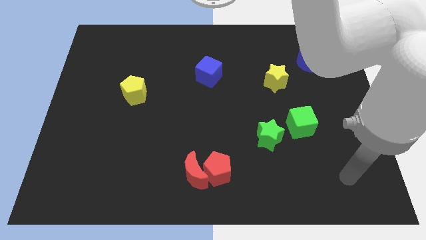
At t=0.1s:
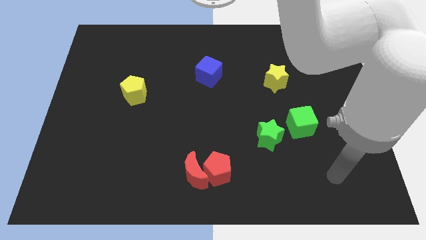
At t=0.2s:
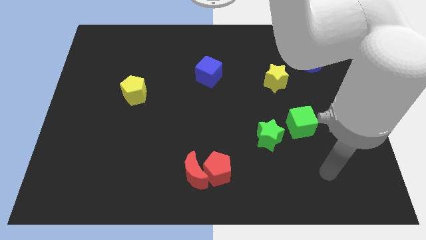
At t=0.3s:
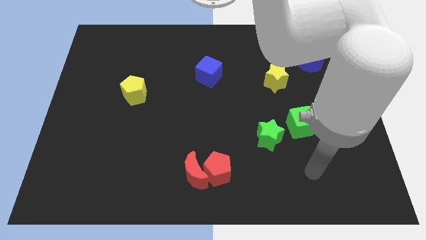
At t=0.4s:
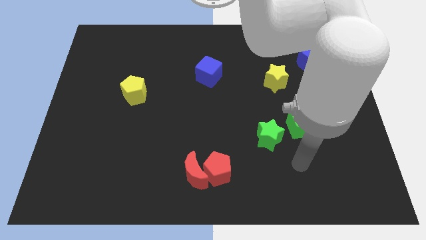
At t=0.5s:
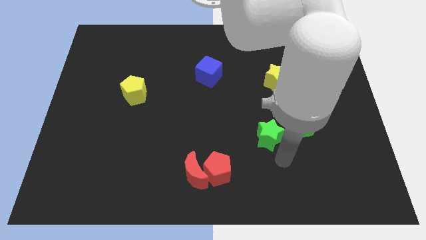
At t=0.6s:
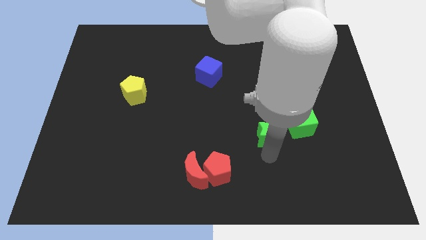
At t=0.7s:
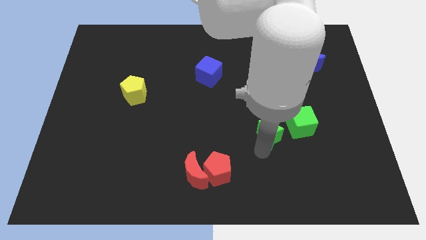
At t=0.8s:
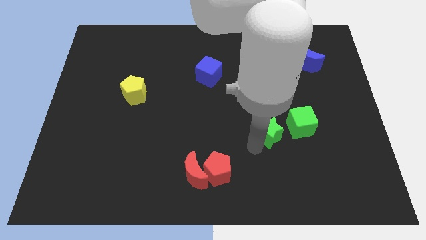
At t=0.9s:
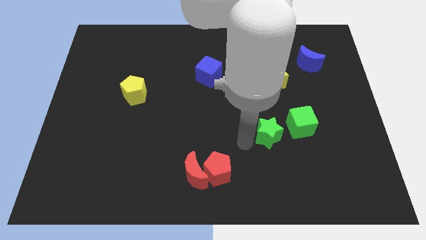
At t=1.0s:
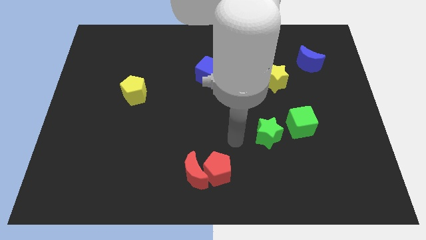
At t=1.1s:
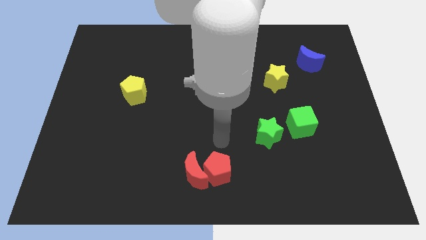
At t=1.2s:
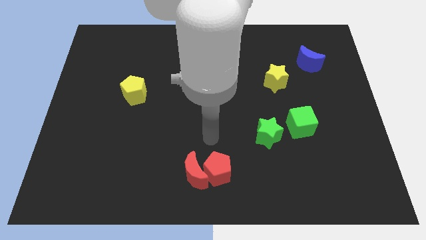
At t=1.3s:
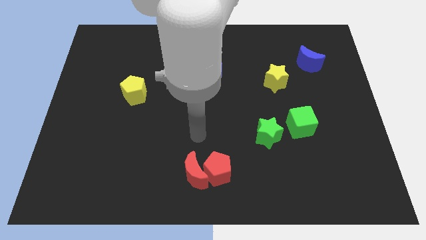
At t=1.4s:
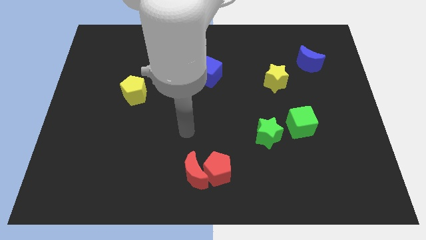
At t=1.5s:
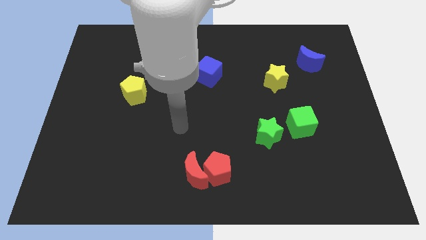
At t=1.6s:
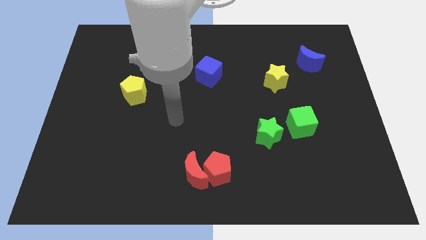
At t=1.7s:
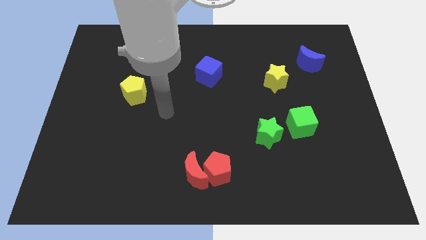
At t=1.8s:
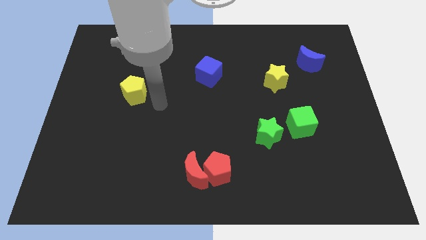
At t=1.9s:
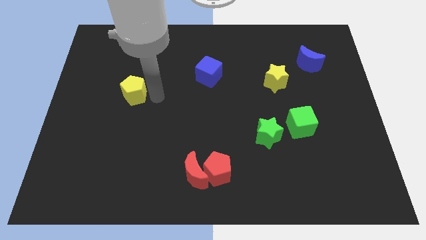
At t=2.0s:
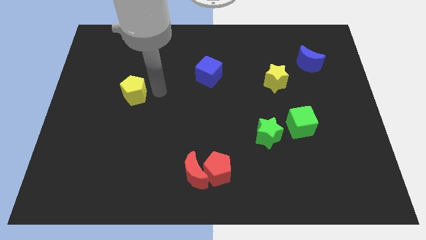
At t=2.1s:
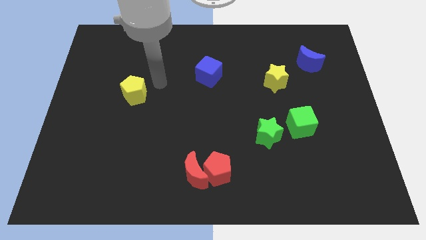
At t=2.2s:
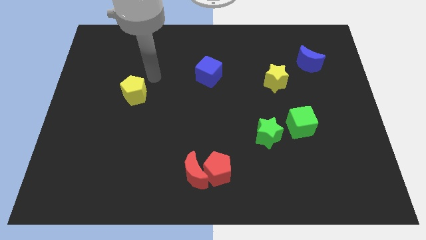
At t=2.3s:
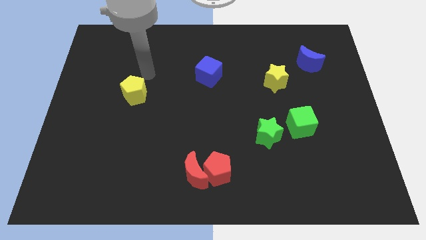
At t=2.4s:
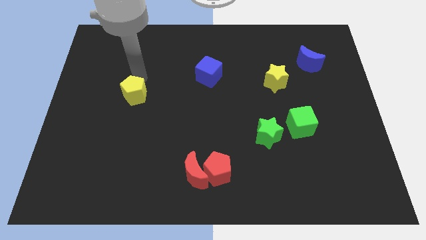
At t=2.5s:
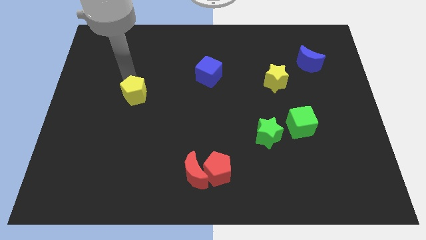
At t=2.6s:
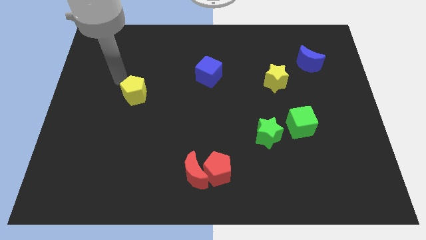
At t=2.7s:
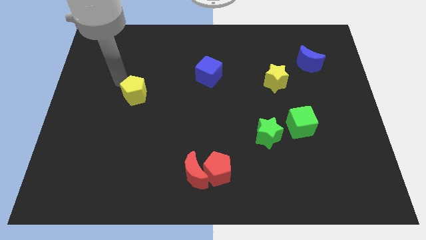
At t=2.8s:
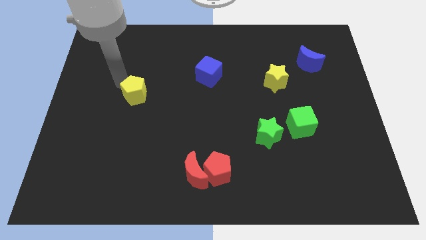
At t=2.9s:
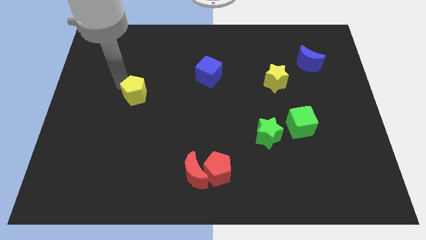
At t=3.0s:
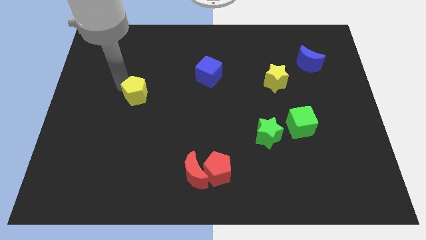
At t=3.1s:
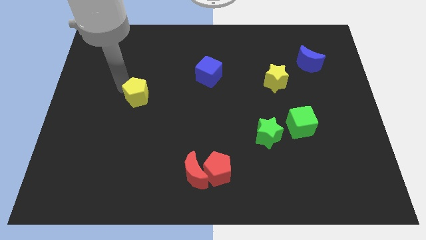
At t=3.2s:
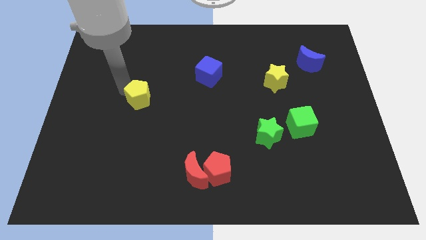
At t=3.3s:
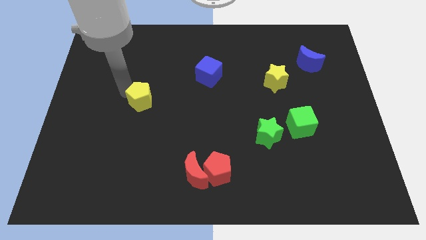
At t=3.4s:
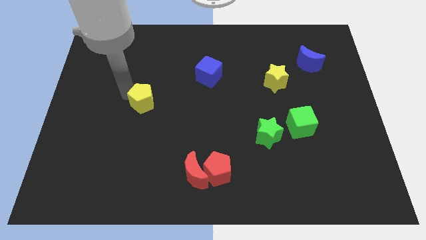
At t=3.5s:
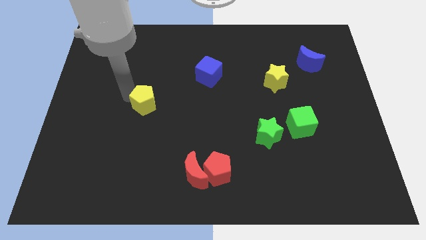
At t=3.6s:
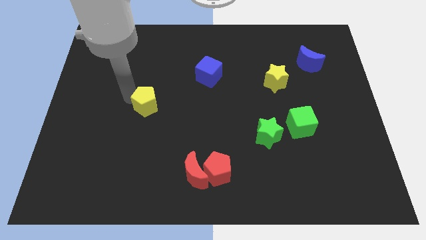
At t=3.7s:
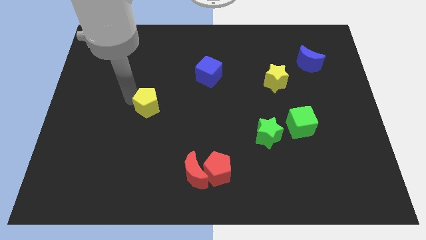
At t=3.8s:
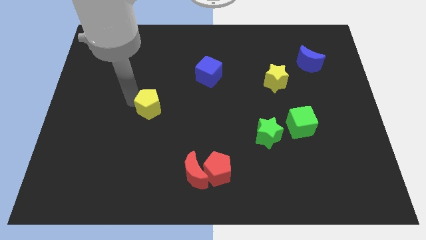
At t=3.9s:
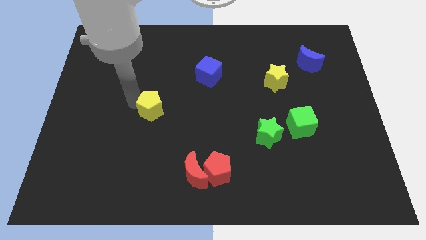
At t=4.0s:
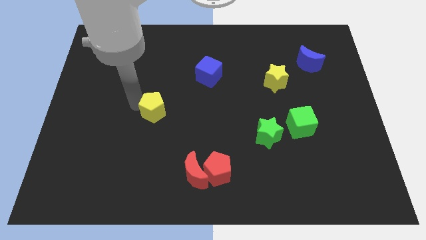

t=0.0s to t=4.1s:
slightly move the yellow pentagon downwards and to the right

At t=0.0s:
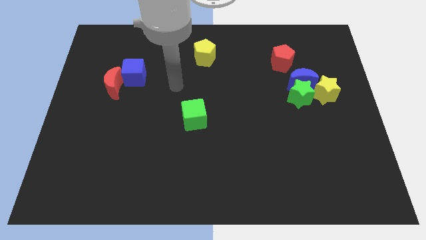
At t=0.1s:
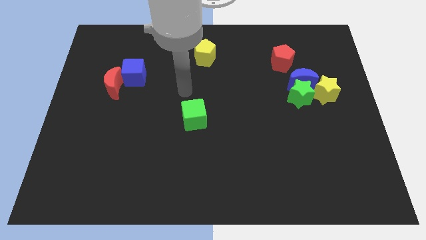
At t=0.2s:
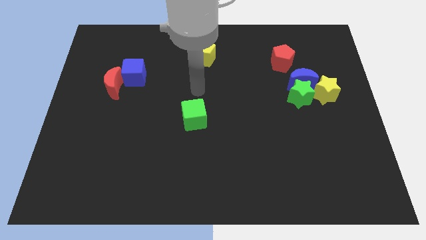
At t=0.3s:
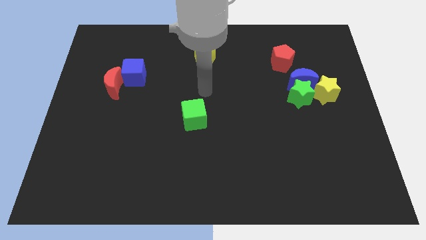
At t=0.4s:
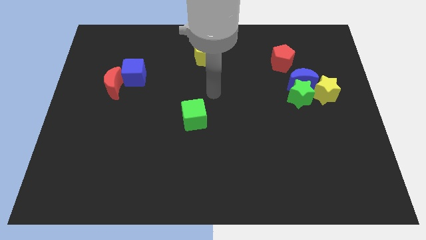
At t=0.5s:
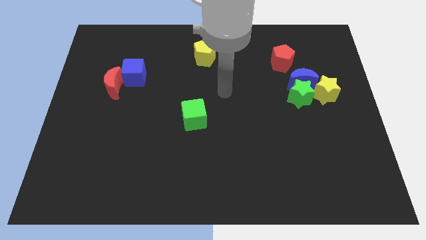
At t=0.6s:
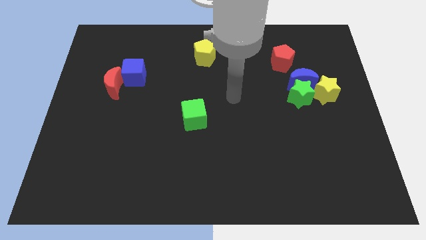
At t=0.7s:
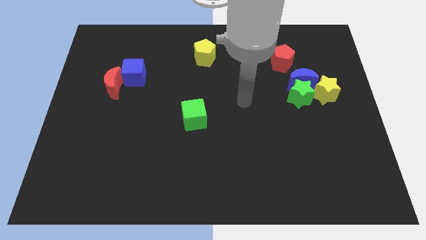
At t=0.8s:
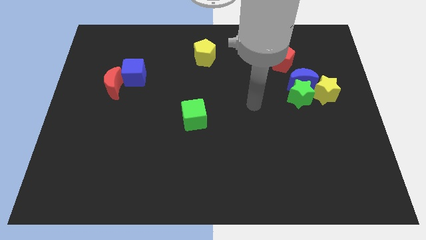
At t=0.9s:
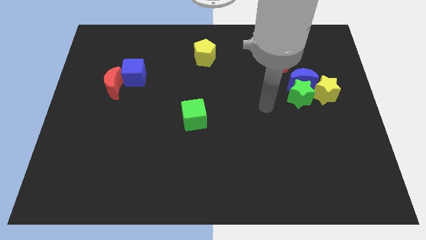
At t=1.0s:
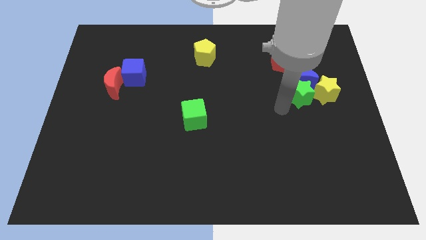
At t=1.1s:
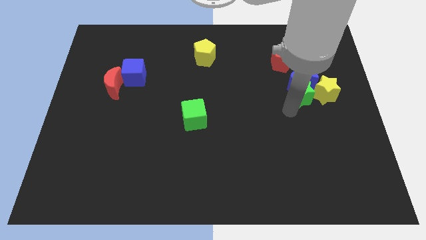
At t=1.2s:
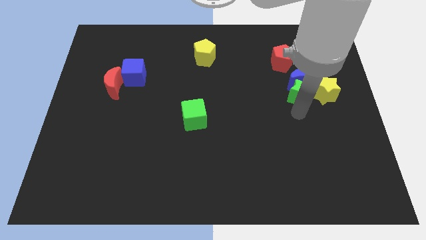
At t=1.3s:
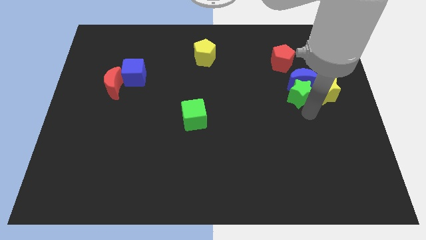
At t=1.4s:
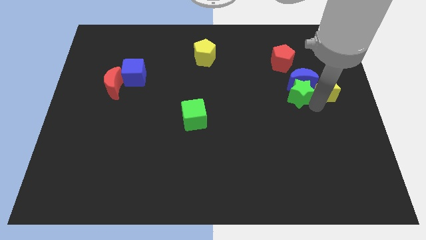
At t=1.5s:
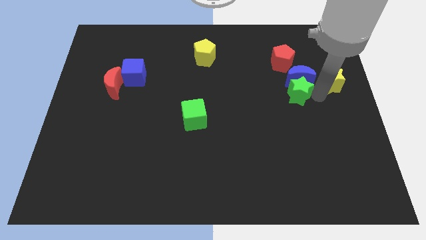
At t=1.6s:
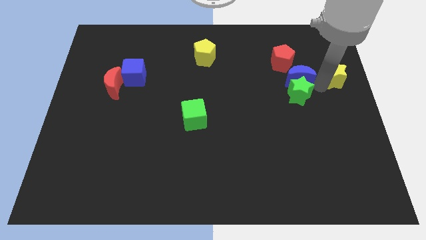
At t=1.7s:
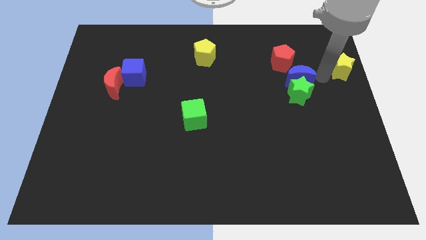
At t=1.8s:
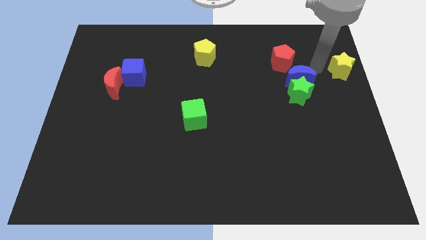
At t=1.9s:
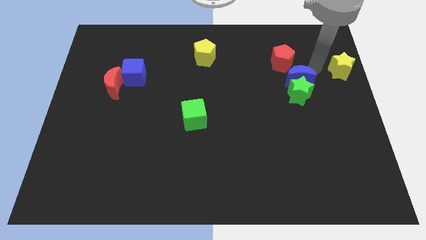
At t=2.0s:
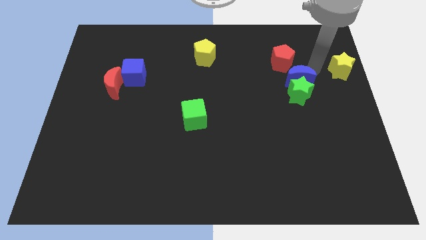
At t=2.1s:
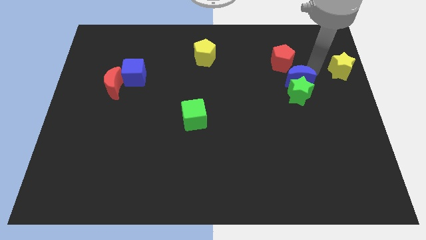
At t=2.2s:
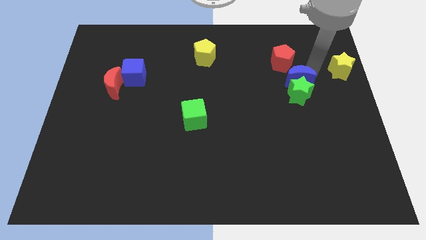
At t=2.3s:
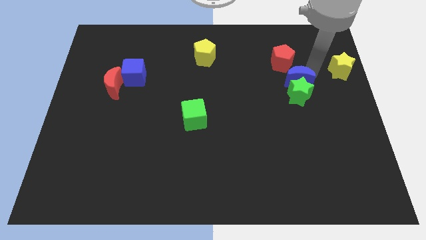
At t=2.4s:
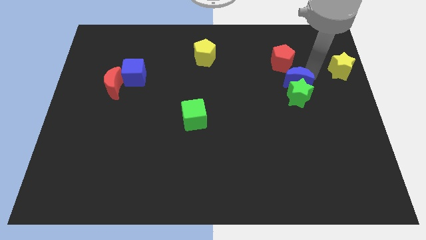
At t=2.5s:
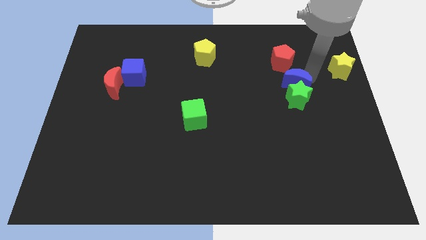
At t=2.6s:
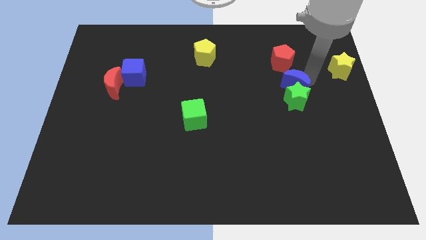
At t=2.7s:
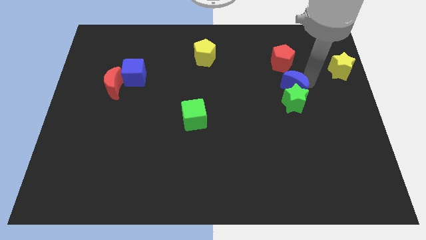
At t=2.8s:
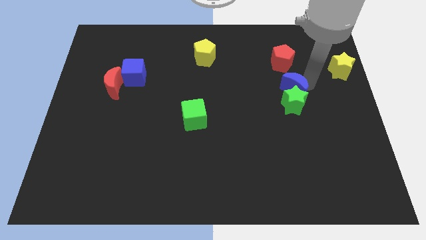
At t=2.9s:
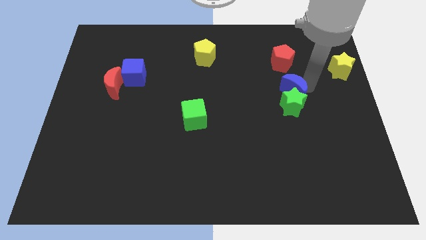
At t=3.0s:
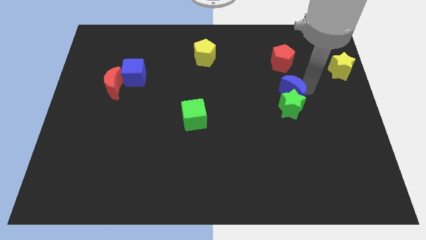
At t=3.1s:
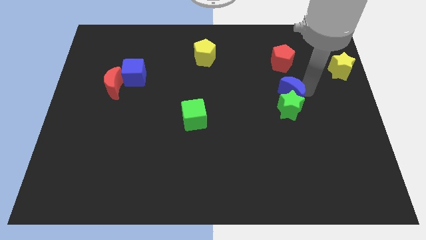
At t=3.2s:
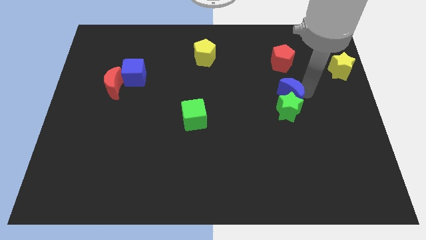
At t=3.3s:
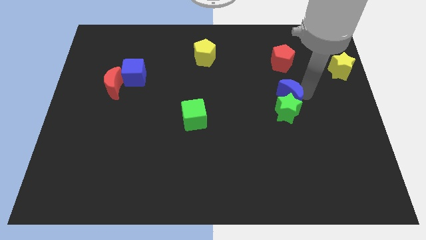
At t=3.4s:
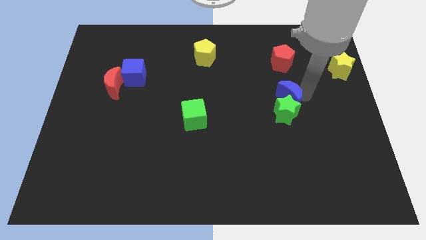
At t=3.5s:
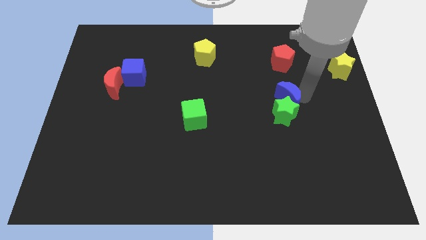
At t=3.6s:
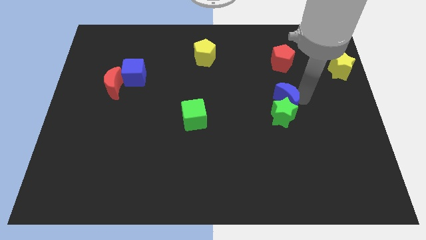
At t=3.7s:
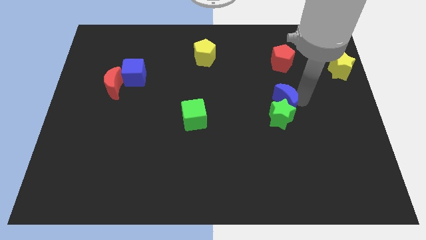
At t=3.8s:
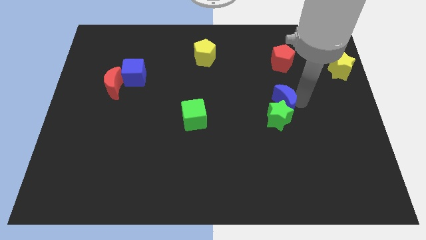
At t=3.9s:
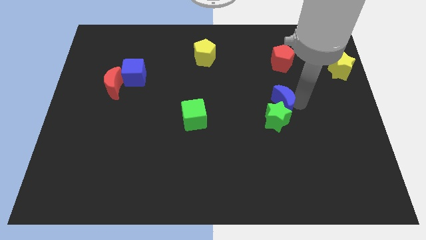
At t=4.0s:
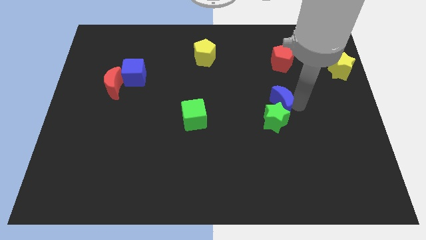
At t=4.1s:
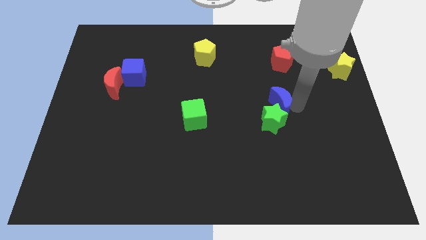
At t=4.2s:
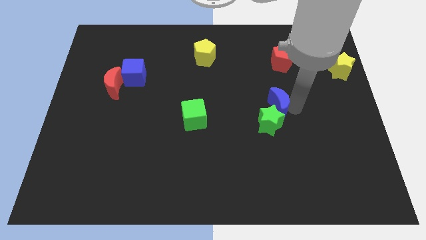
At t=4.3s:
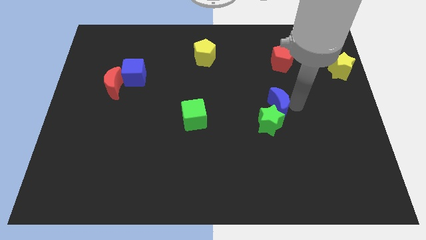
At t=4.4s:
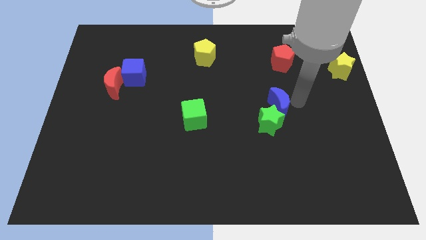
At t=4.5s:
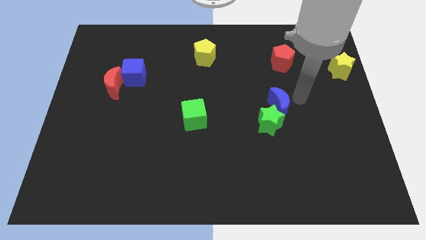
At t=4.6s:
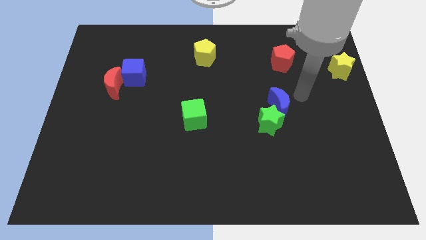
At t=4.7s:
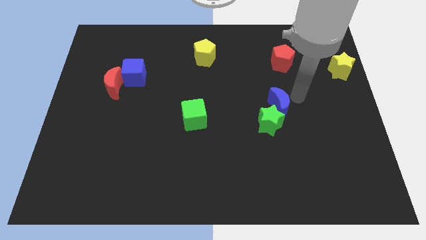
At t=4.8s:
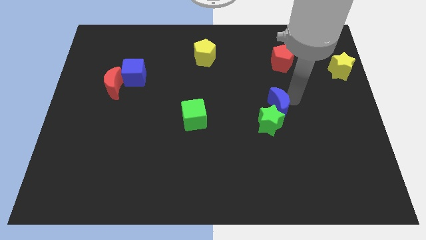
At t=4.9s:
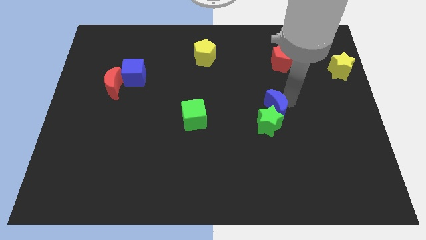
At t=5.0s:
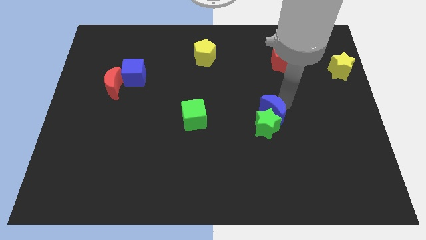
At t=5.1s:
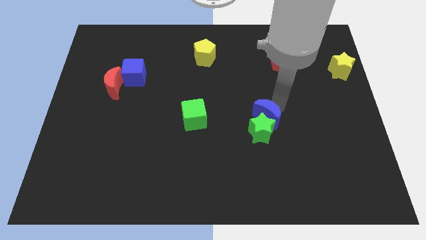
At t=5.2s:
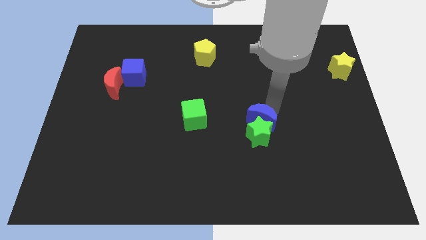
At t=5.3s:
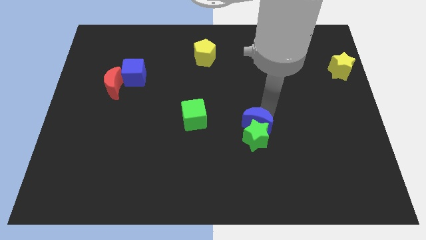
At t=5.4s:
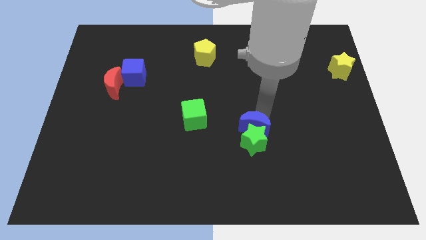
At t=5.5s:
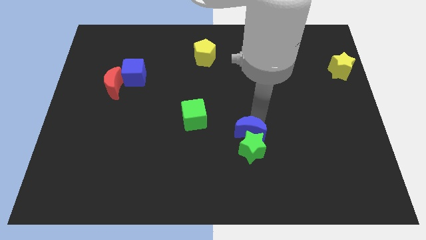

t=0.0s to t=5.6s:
move the blue moon downwards and left
